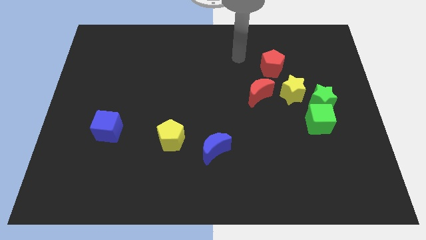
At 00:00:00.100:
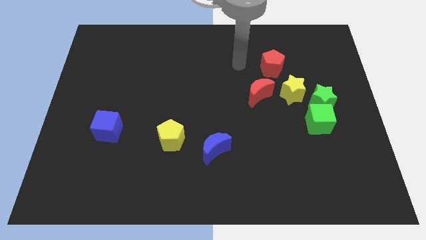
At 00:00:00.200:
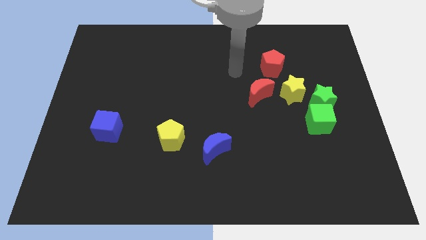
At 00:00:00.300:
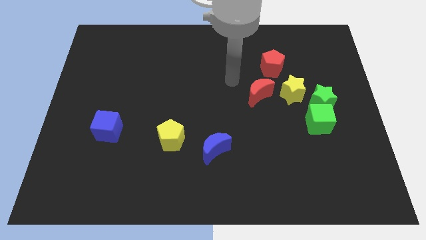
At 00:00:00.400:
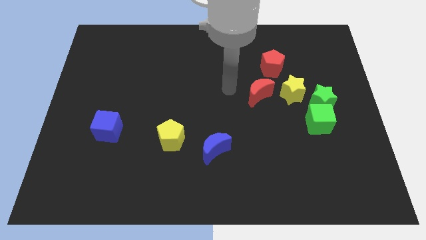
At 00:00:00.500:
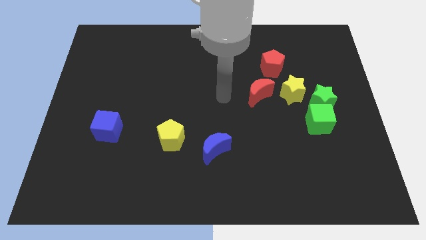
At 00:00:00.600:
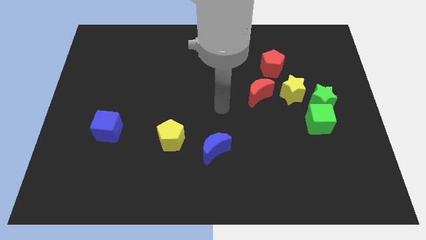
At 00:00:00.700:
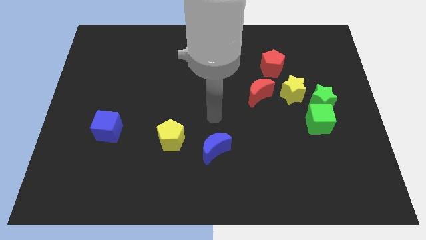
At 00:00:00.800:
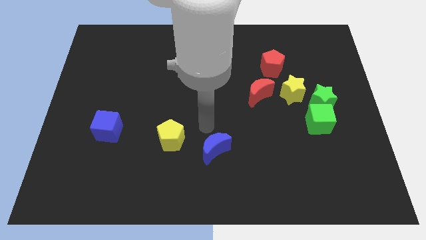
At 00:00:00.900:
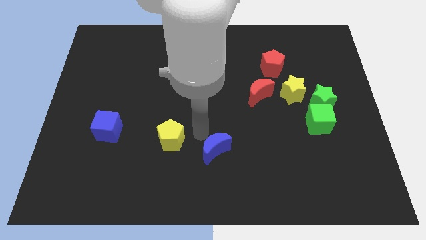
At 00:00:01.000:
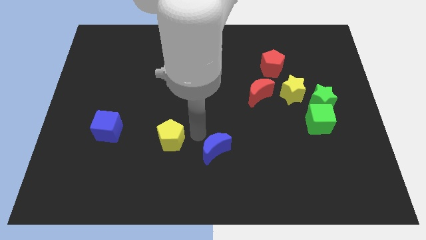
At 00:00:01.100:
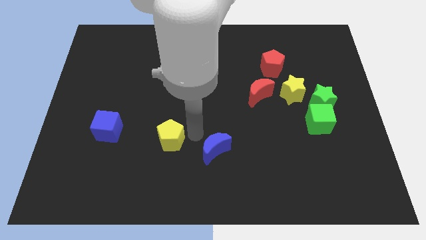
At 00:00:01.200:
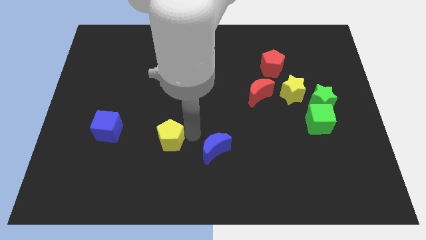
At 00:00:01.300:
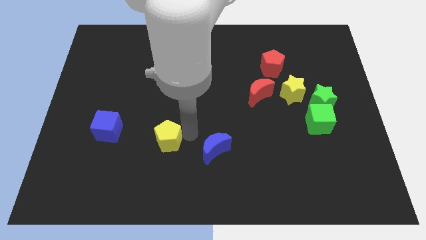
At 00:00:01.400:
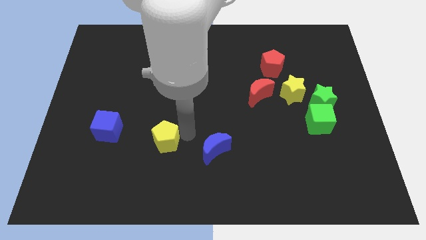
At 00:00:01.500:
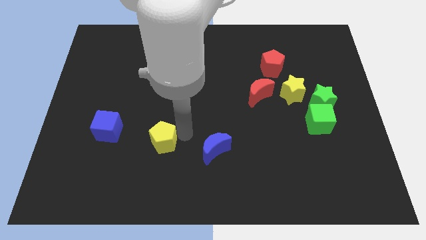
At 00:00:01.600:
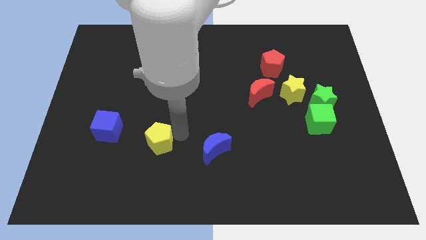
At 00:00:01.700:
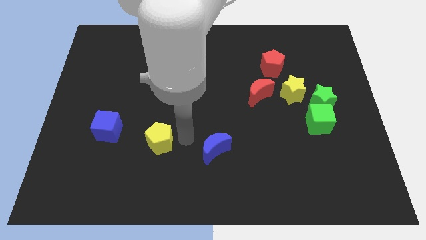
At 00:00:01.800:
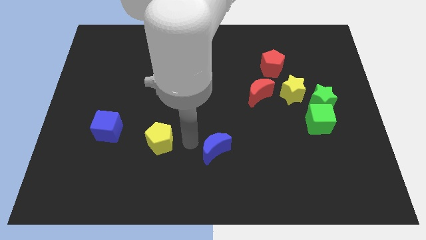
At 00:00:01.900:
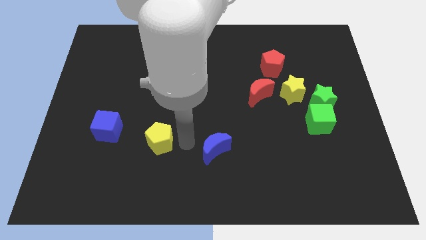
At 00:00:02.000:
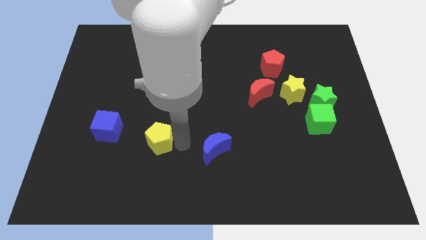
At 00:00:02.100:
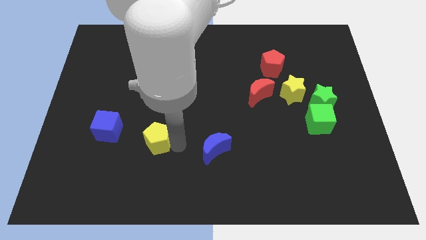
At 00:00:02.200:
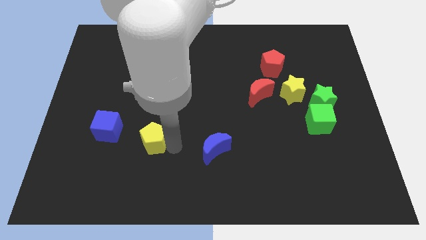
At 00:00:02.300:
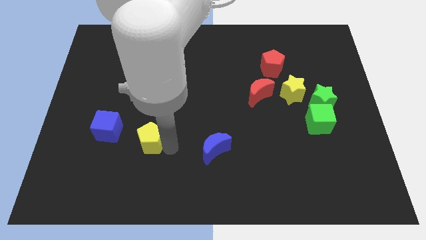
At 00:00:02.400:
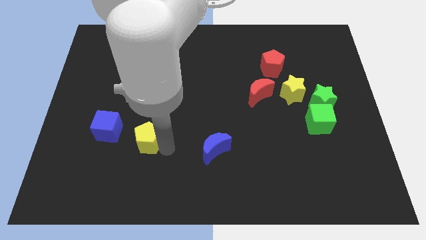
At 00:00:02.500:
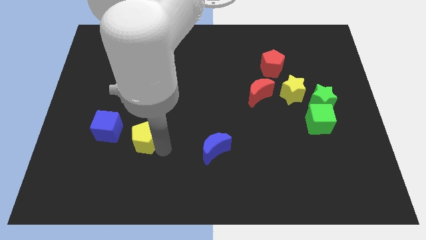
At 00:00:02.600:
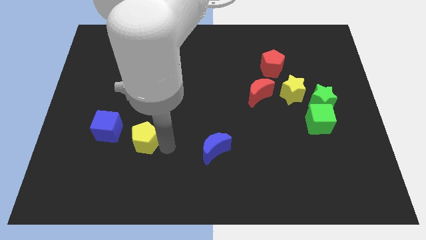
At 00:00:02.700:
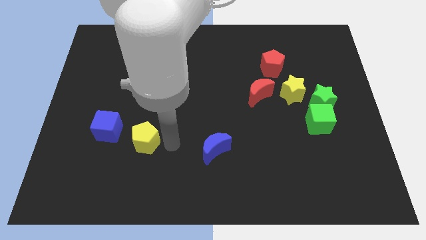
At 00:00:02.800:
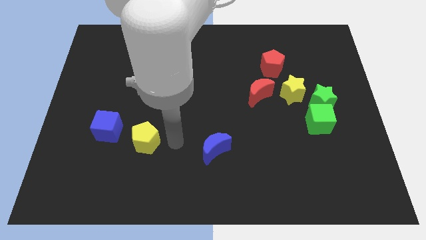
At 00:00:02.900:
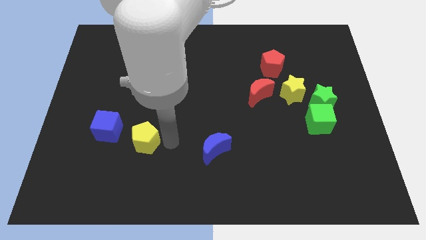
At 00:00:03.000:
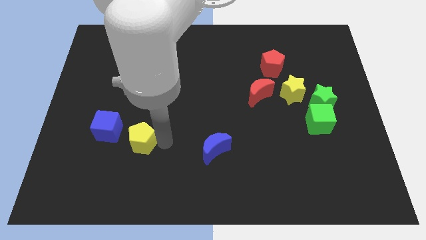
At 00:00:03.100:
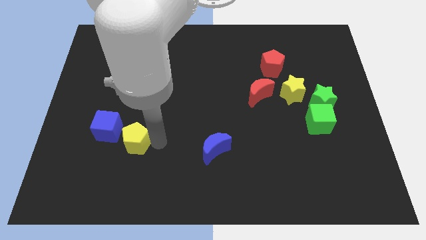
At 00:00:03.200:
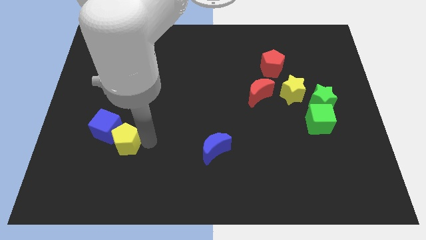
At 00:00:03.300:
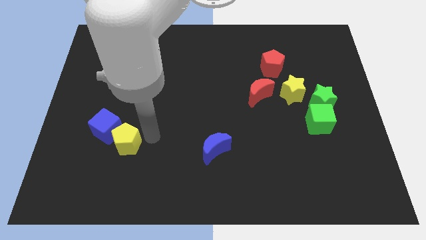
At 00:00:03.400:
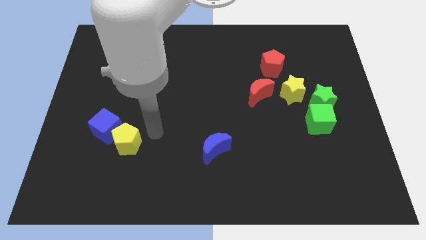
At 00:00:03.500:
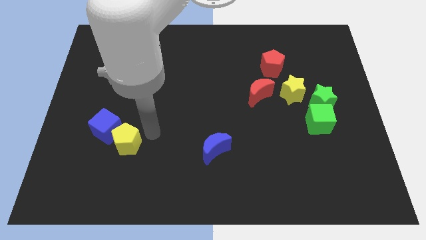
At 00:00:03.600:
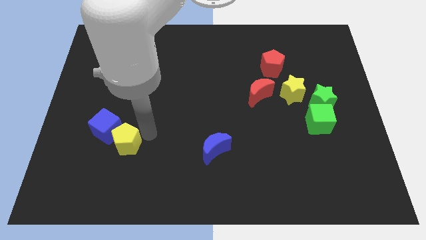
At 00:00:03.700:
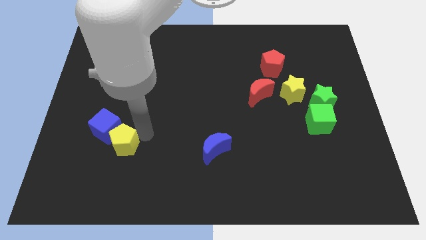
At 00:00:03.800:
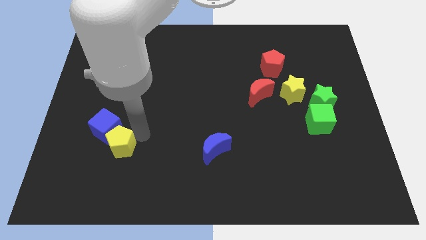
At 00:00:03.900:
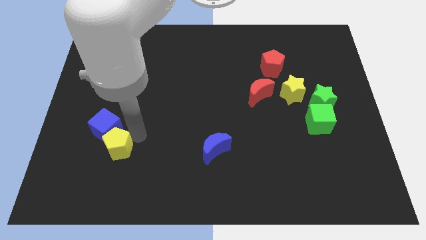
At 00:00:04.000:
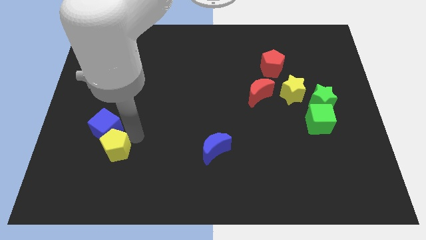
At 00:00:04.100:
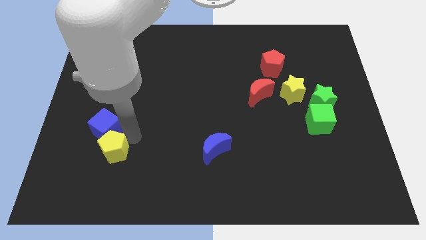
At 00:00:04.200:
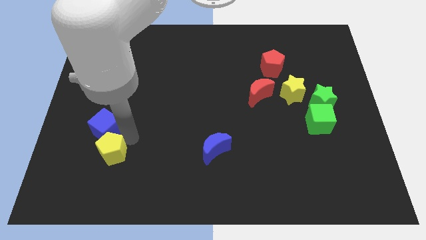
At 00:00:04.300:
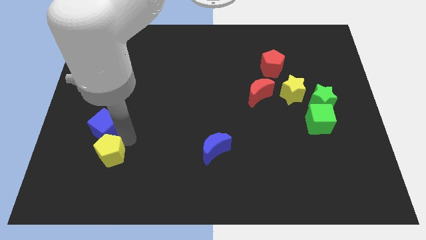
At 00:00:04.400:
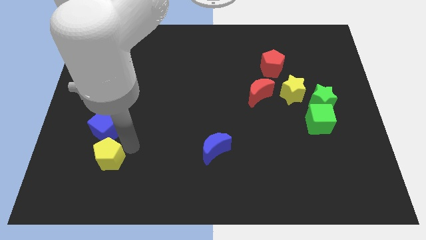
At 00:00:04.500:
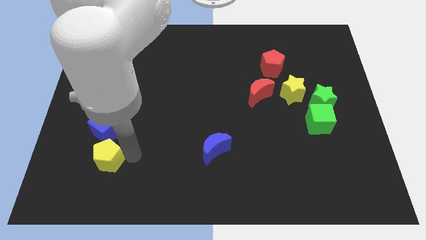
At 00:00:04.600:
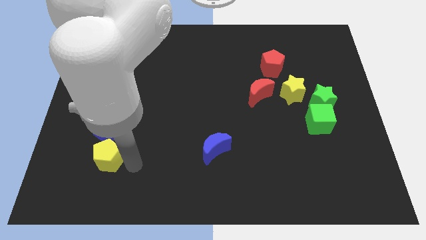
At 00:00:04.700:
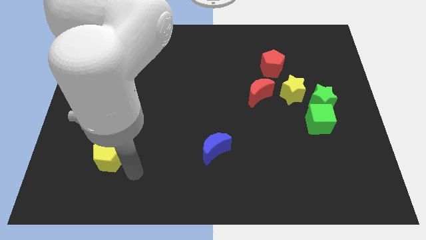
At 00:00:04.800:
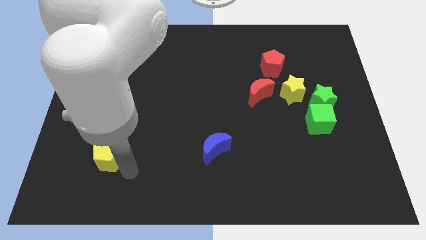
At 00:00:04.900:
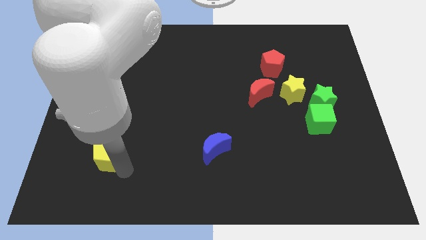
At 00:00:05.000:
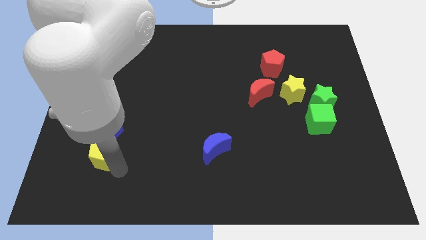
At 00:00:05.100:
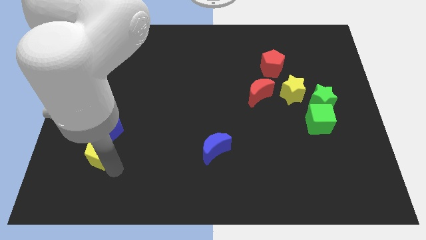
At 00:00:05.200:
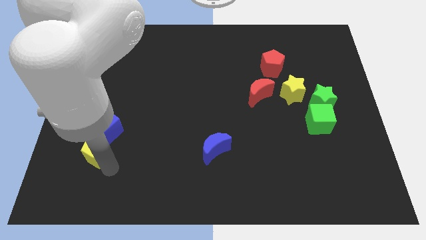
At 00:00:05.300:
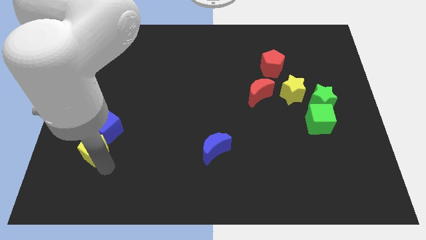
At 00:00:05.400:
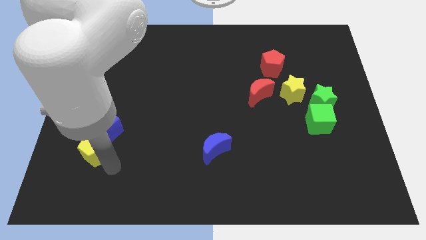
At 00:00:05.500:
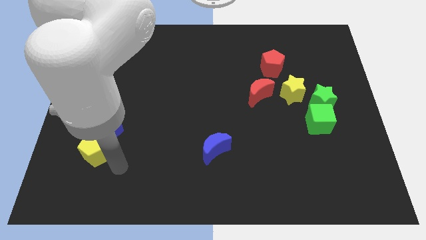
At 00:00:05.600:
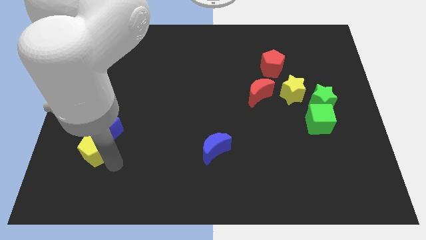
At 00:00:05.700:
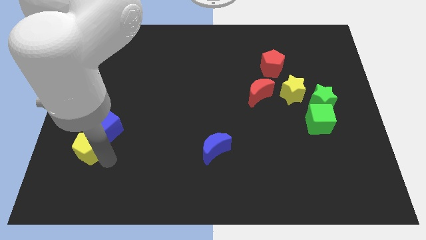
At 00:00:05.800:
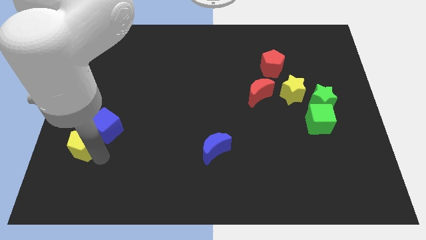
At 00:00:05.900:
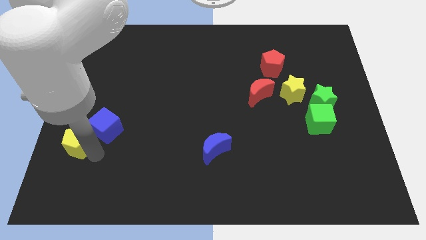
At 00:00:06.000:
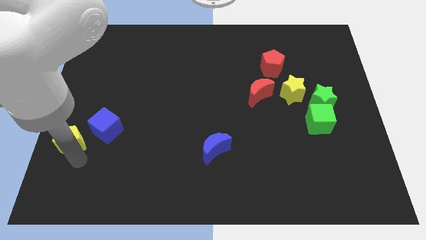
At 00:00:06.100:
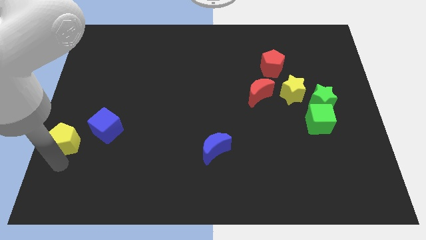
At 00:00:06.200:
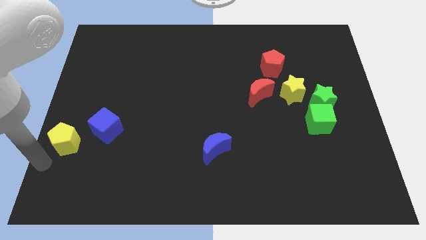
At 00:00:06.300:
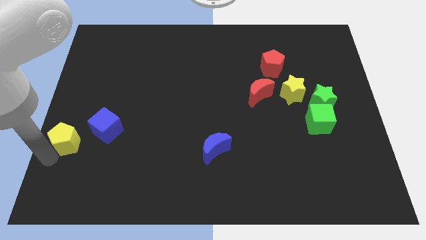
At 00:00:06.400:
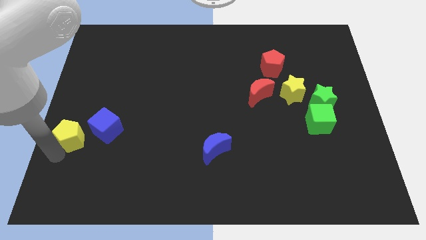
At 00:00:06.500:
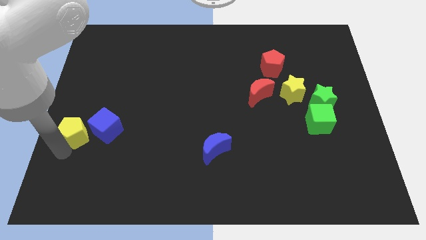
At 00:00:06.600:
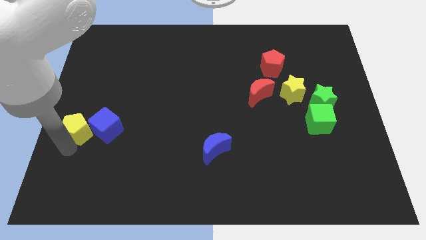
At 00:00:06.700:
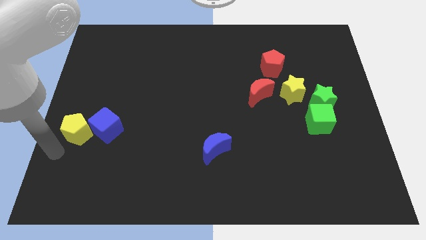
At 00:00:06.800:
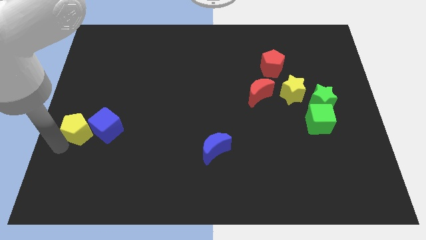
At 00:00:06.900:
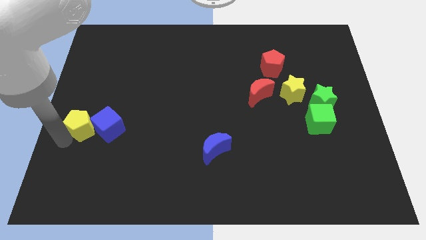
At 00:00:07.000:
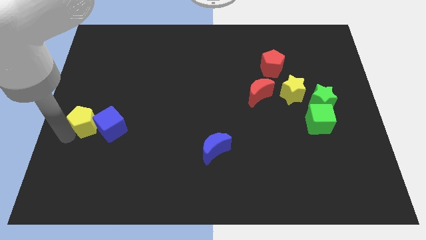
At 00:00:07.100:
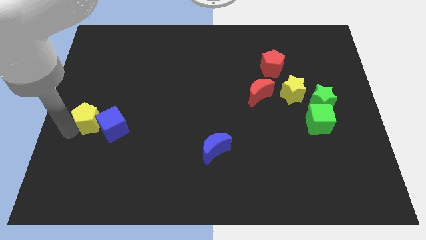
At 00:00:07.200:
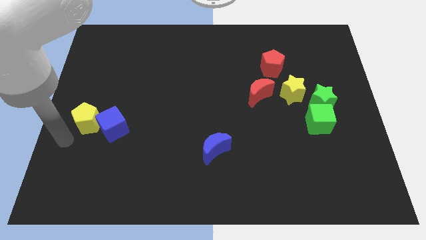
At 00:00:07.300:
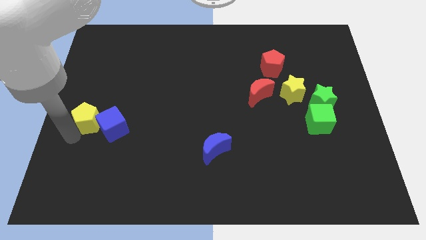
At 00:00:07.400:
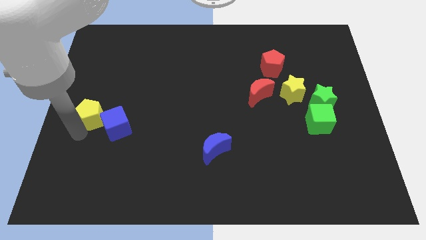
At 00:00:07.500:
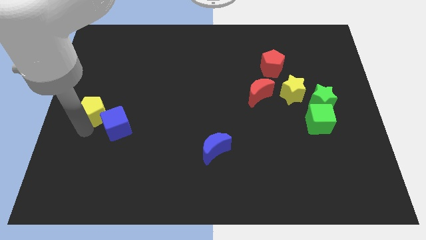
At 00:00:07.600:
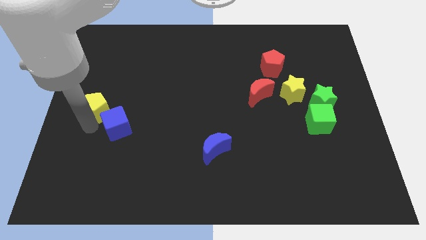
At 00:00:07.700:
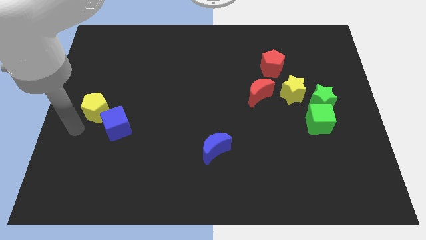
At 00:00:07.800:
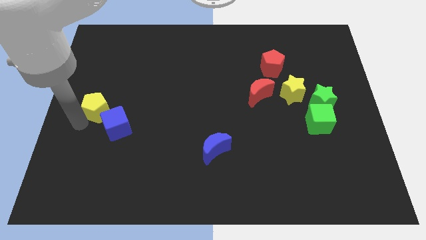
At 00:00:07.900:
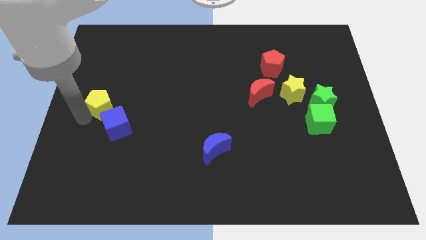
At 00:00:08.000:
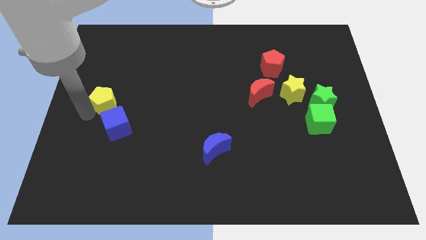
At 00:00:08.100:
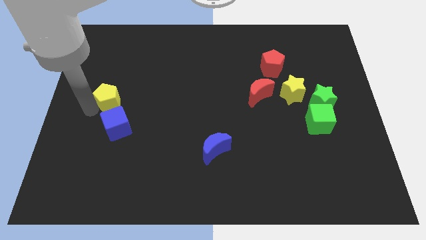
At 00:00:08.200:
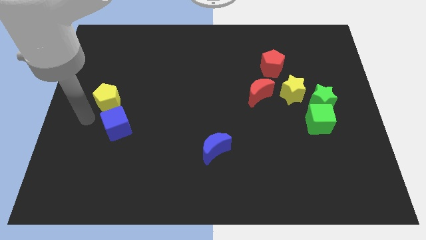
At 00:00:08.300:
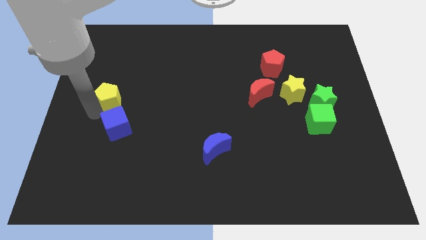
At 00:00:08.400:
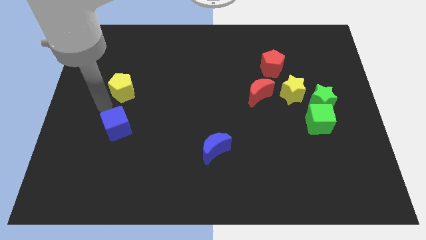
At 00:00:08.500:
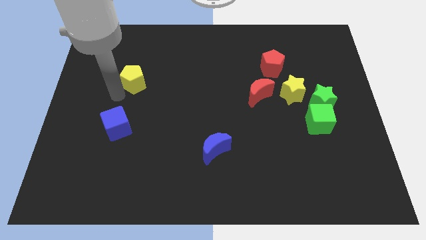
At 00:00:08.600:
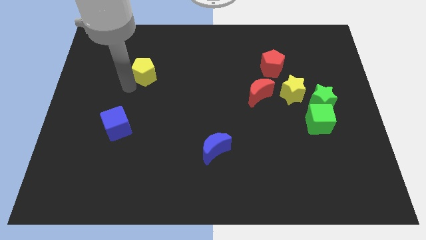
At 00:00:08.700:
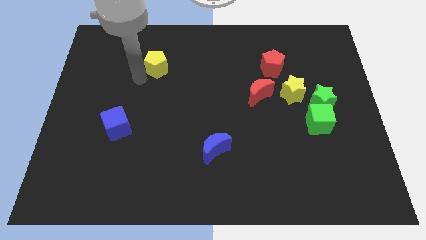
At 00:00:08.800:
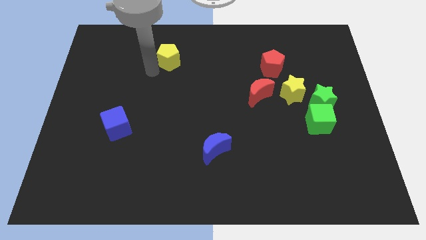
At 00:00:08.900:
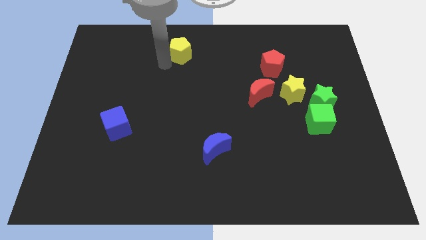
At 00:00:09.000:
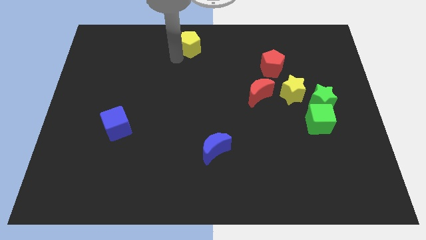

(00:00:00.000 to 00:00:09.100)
push the yellow pentagon to the top side
